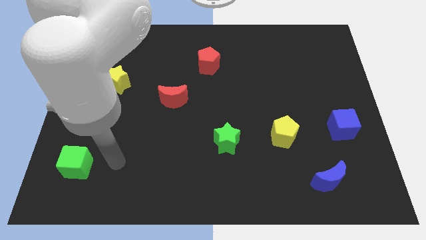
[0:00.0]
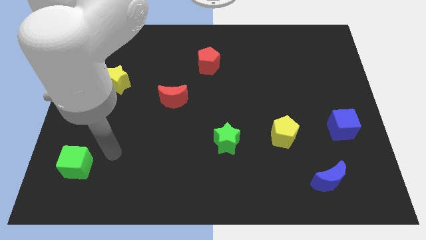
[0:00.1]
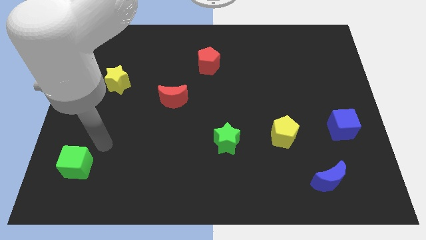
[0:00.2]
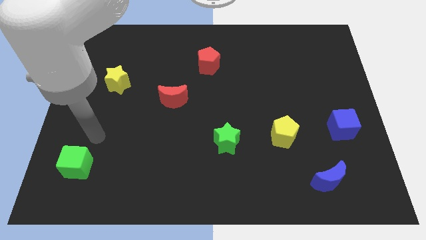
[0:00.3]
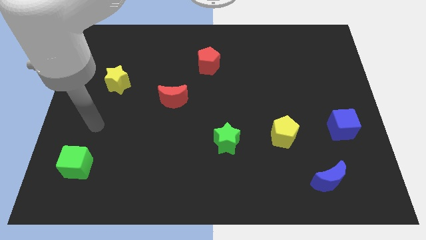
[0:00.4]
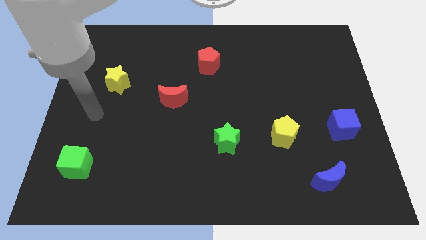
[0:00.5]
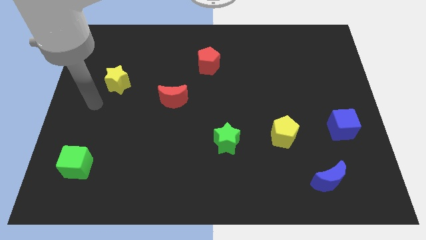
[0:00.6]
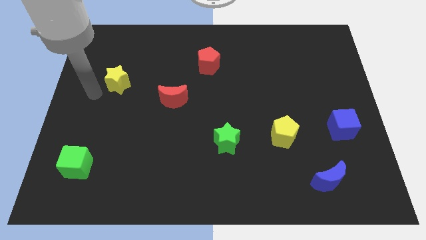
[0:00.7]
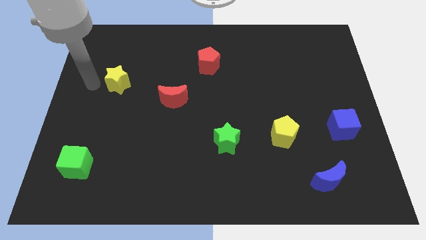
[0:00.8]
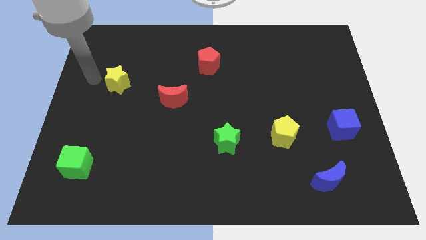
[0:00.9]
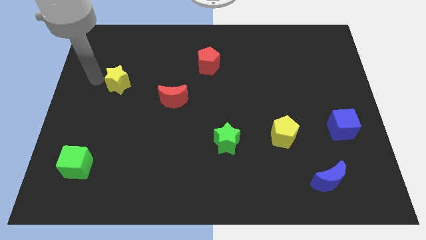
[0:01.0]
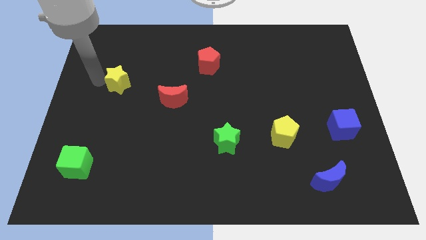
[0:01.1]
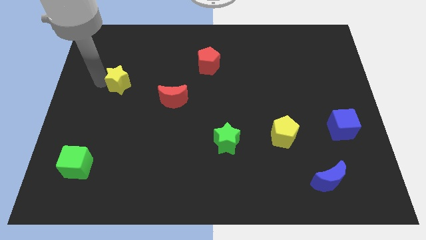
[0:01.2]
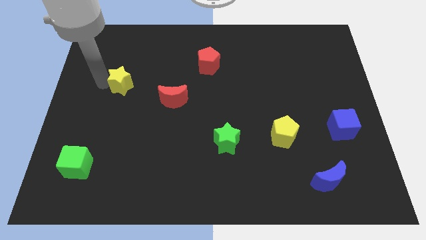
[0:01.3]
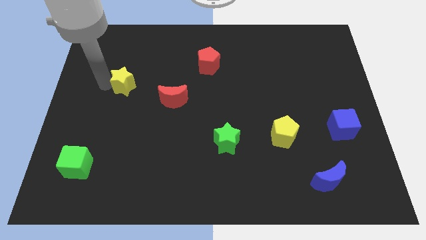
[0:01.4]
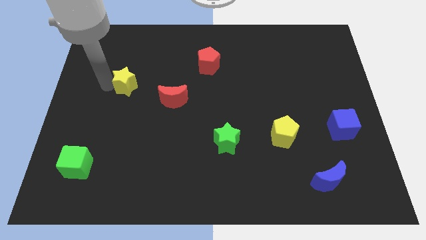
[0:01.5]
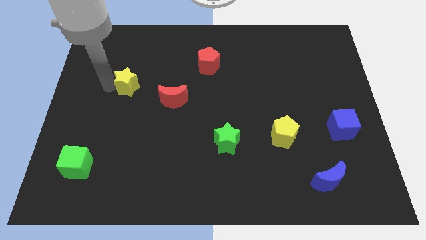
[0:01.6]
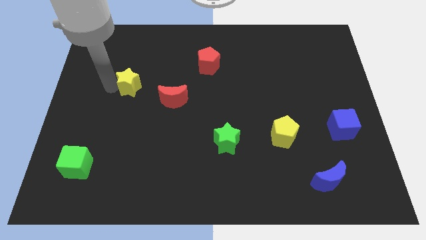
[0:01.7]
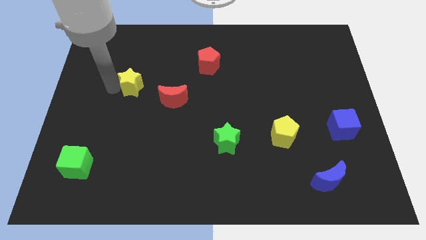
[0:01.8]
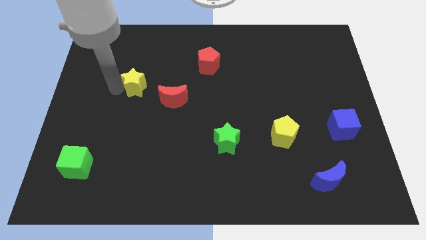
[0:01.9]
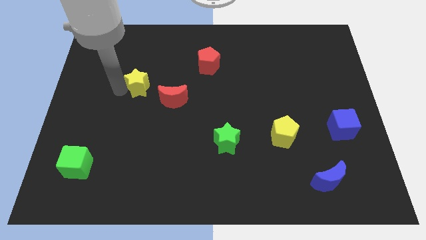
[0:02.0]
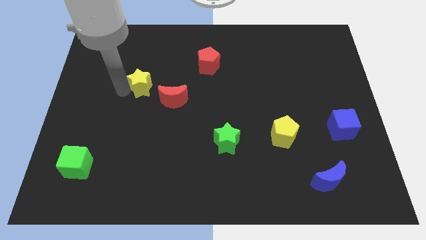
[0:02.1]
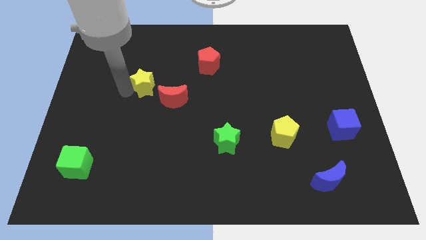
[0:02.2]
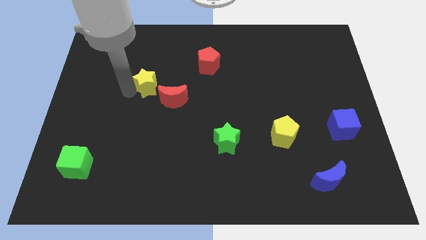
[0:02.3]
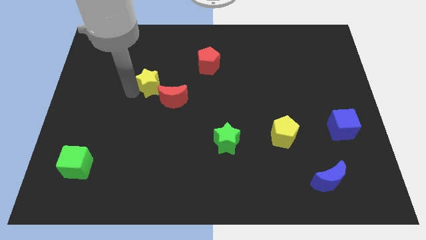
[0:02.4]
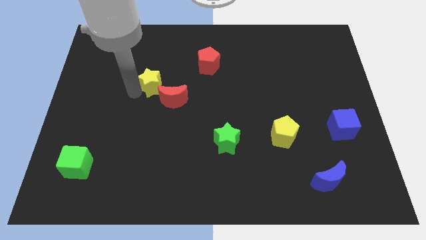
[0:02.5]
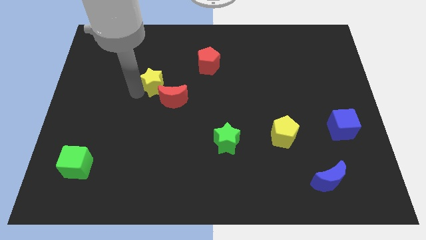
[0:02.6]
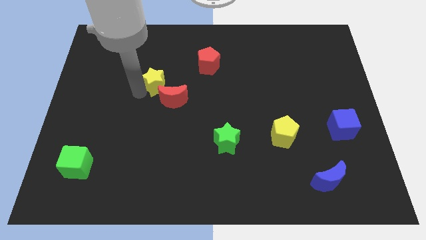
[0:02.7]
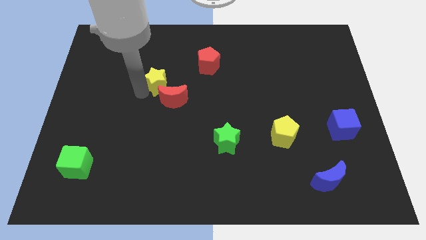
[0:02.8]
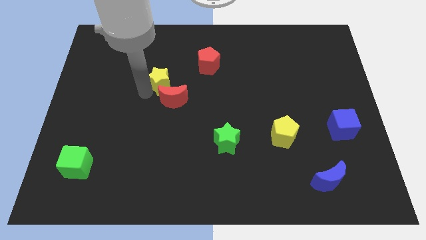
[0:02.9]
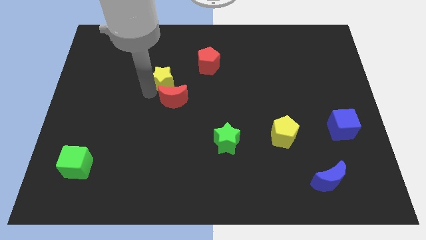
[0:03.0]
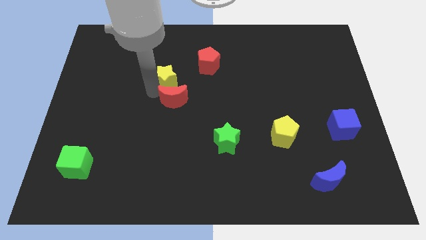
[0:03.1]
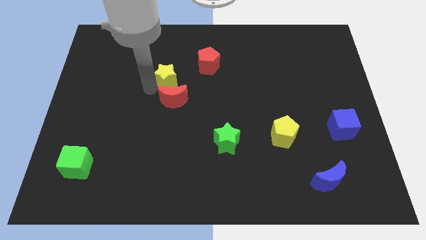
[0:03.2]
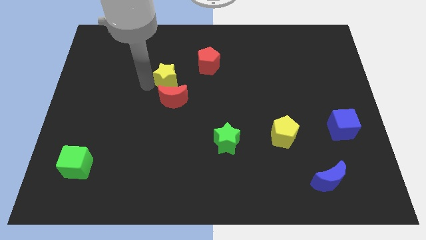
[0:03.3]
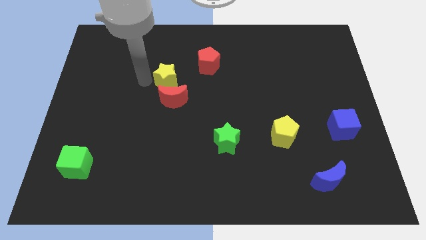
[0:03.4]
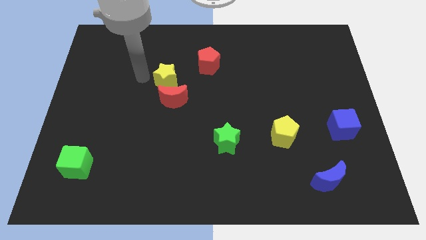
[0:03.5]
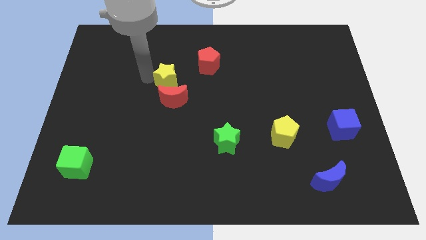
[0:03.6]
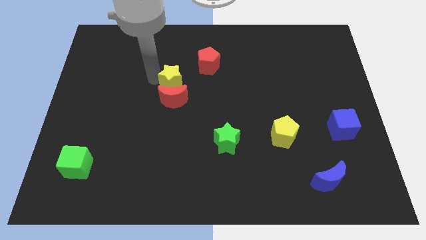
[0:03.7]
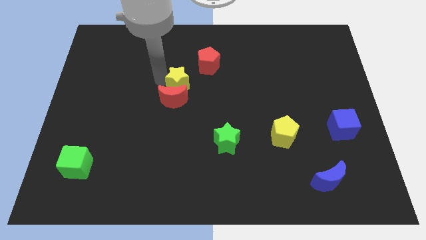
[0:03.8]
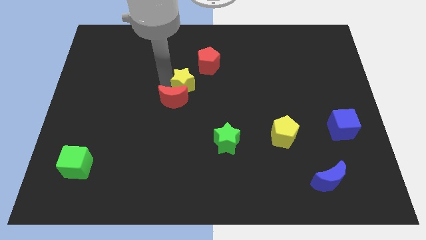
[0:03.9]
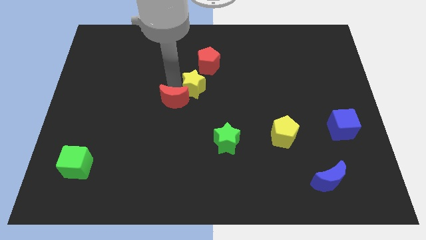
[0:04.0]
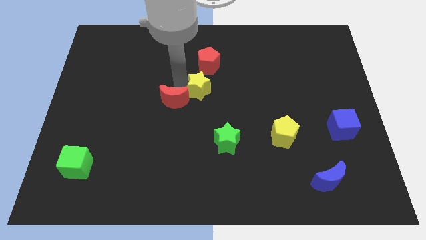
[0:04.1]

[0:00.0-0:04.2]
move the yellow star to the right

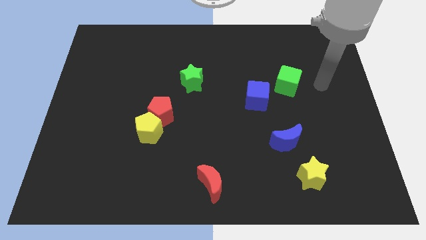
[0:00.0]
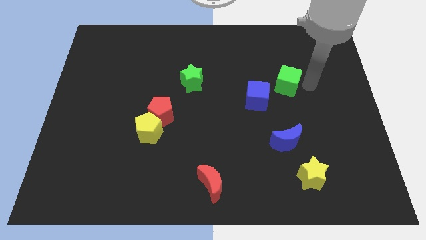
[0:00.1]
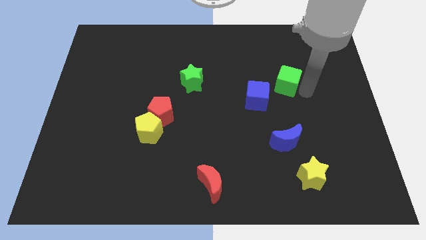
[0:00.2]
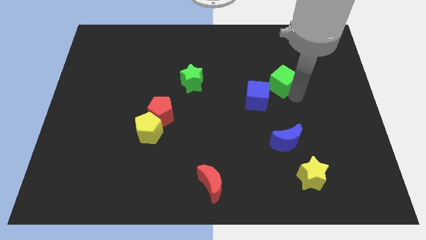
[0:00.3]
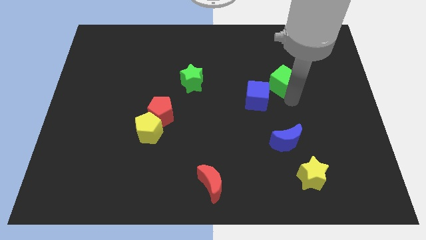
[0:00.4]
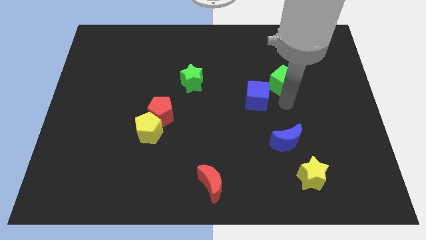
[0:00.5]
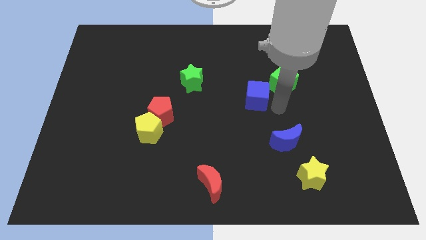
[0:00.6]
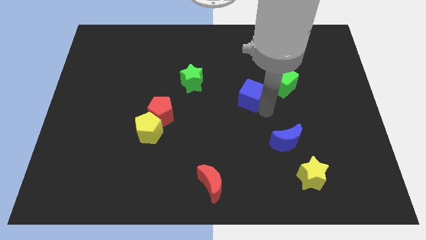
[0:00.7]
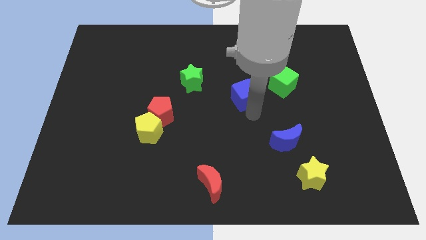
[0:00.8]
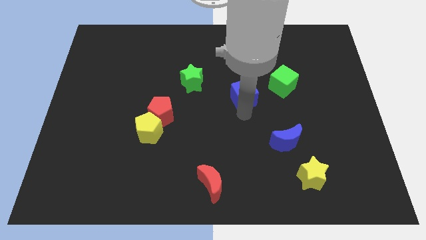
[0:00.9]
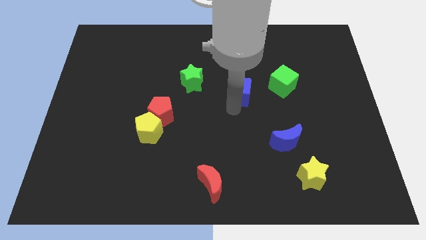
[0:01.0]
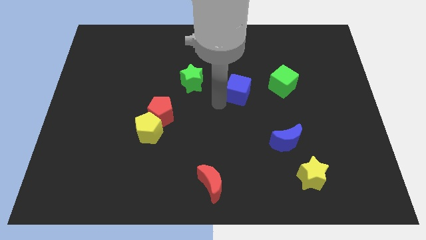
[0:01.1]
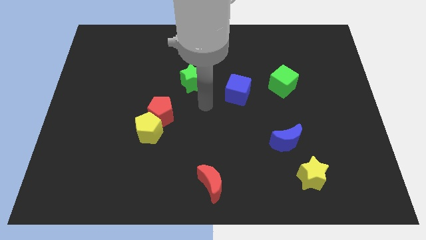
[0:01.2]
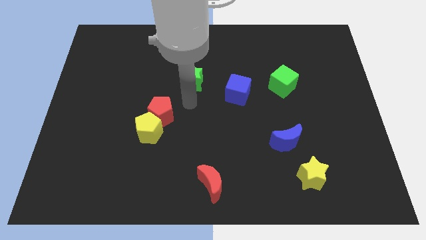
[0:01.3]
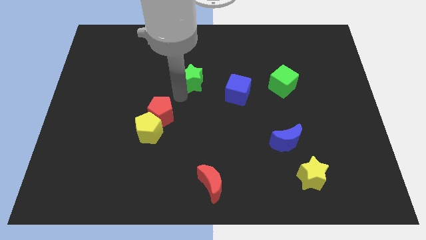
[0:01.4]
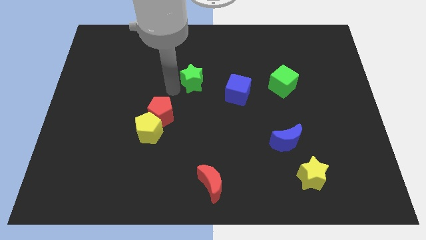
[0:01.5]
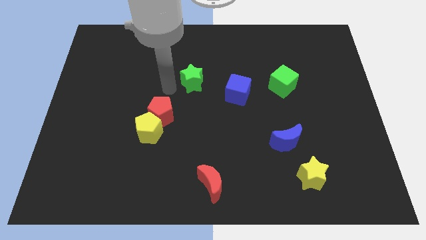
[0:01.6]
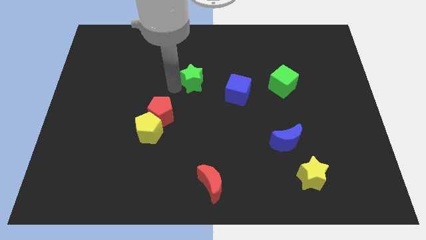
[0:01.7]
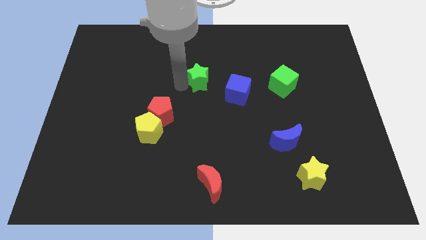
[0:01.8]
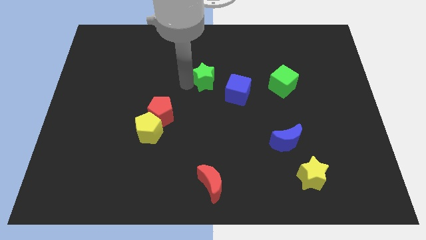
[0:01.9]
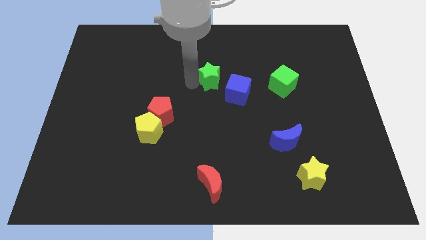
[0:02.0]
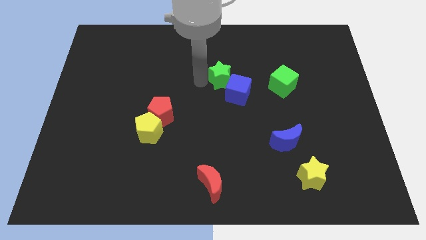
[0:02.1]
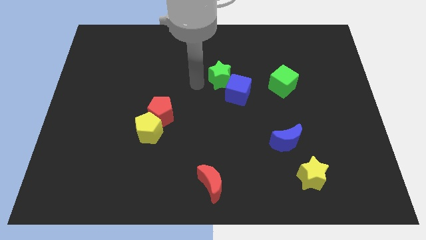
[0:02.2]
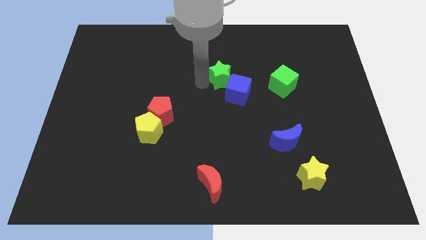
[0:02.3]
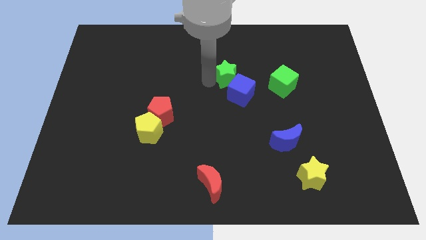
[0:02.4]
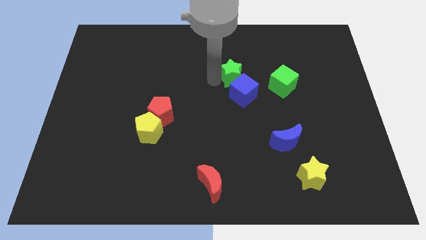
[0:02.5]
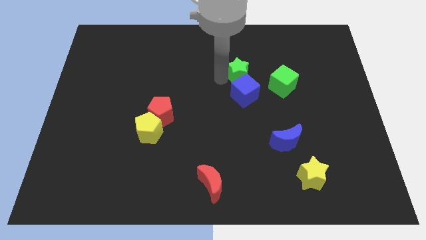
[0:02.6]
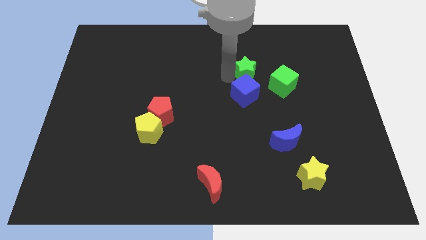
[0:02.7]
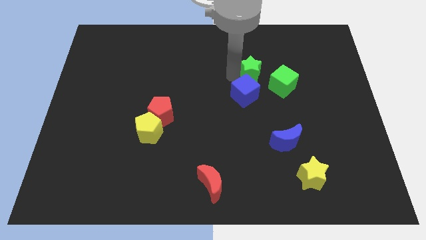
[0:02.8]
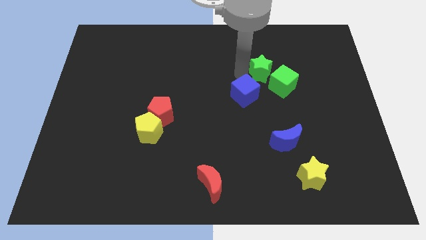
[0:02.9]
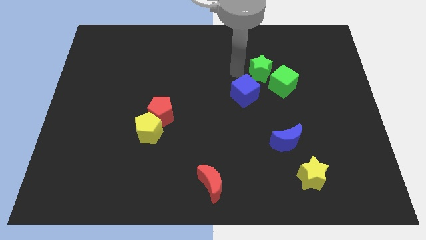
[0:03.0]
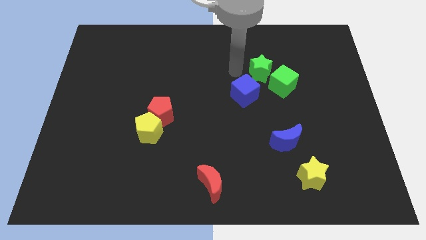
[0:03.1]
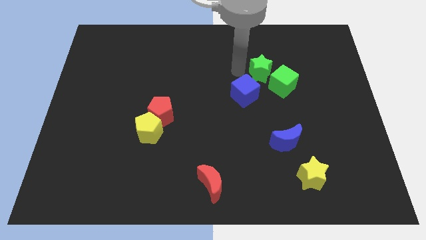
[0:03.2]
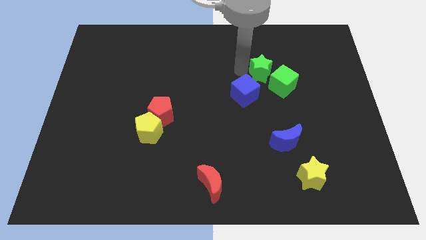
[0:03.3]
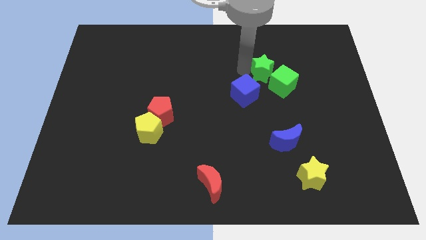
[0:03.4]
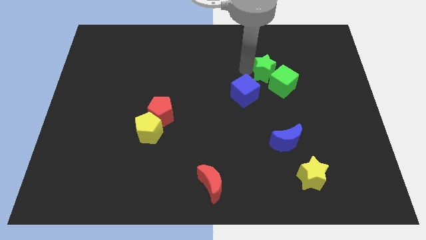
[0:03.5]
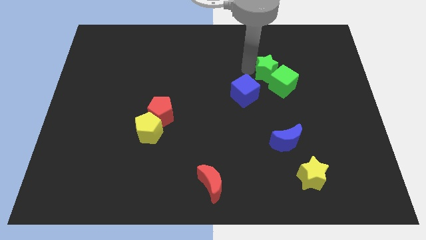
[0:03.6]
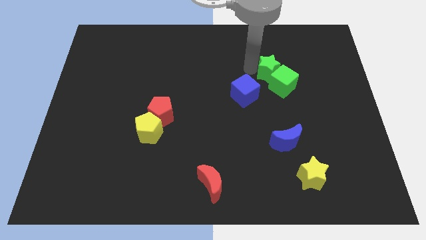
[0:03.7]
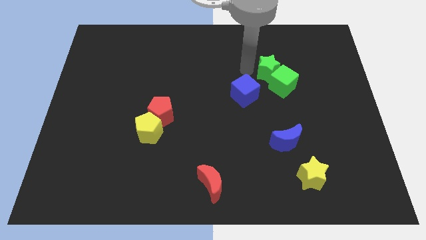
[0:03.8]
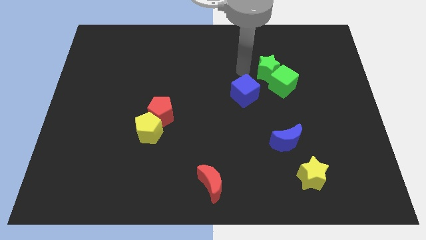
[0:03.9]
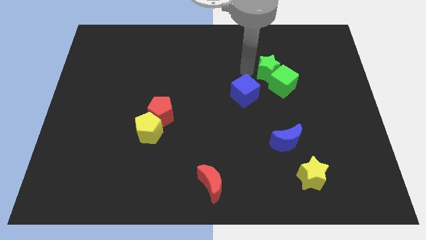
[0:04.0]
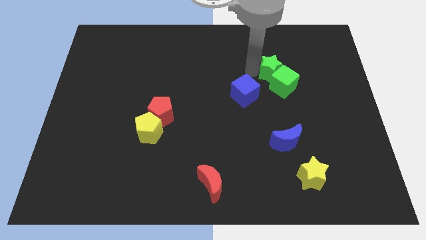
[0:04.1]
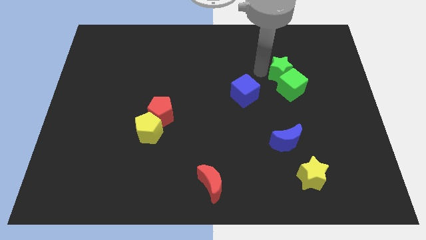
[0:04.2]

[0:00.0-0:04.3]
slide the green star to the right

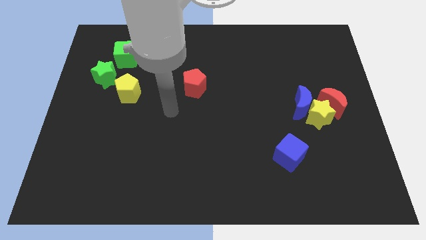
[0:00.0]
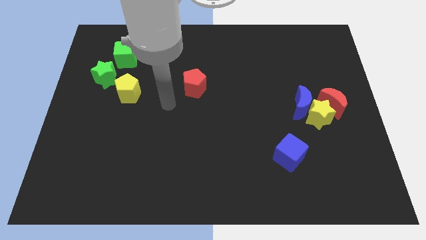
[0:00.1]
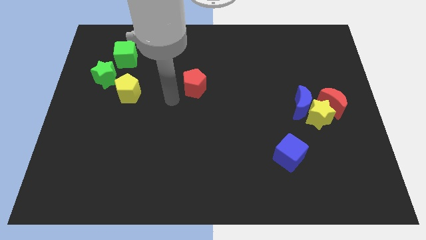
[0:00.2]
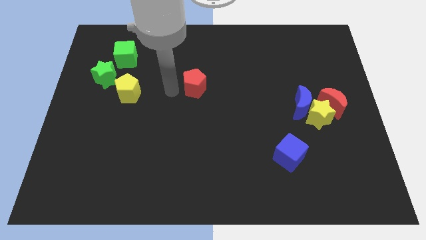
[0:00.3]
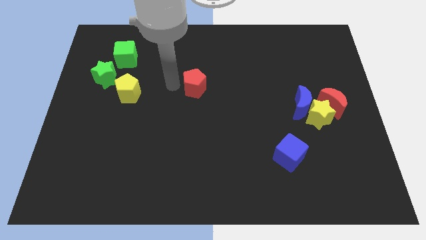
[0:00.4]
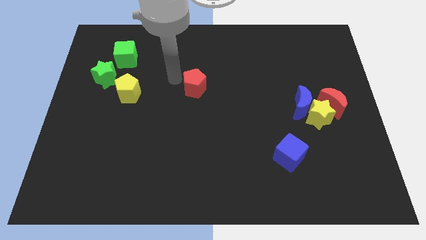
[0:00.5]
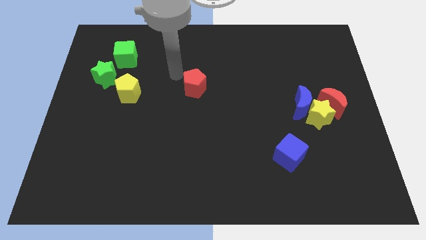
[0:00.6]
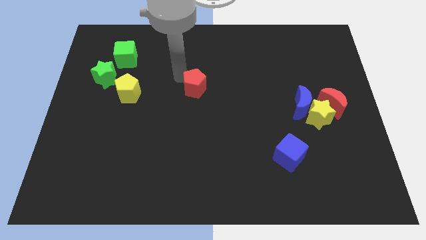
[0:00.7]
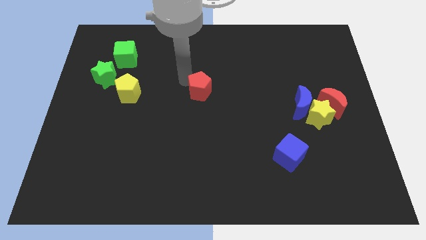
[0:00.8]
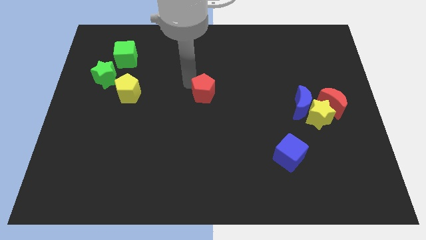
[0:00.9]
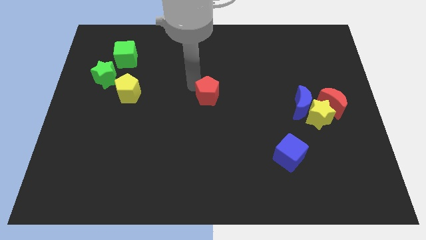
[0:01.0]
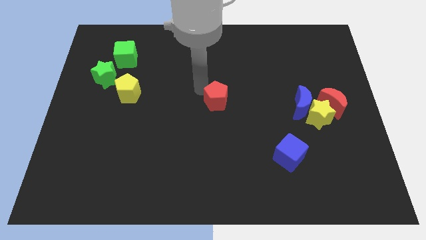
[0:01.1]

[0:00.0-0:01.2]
slide the red pentagon diagonally downwards and to the right slightly
